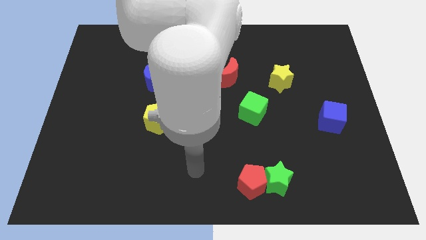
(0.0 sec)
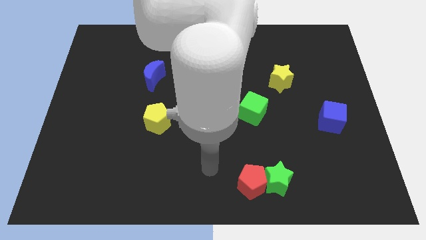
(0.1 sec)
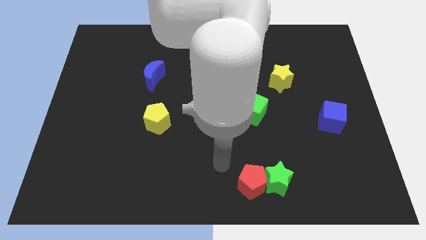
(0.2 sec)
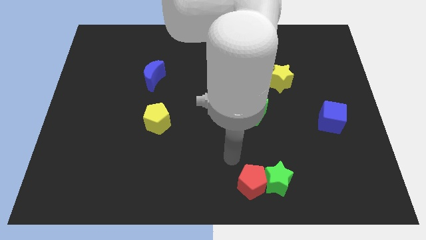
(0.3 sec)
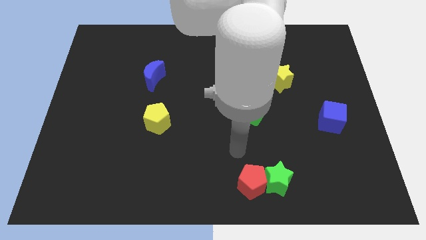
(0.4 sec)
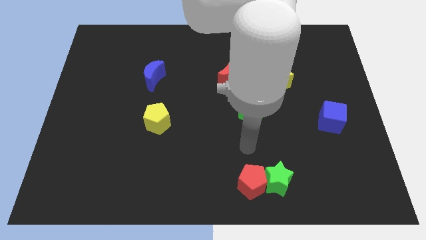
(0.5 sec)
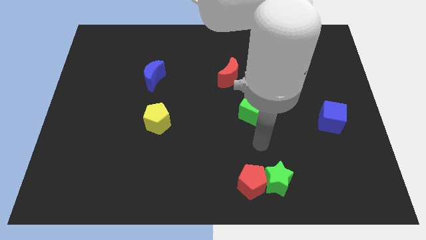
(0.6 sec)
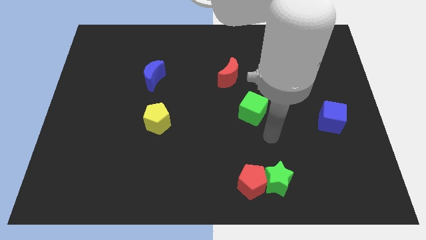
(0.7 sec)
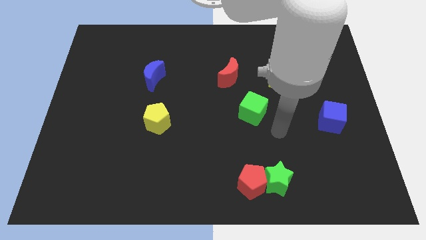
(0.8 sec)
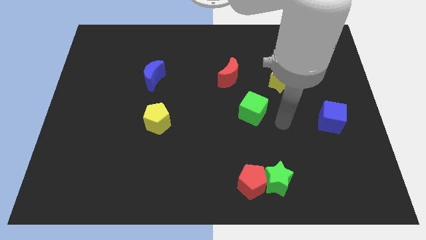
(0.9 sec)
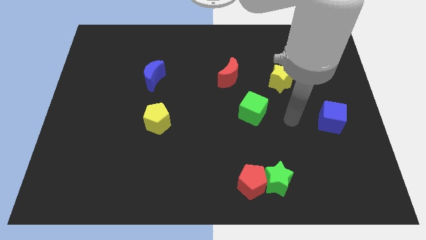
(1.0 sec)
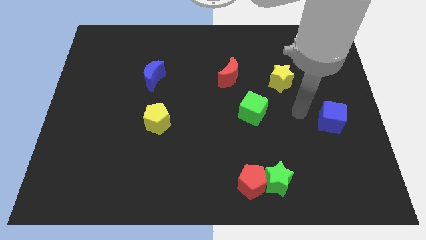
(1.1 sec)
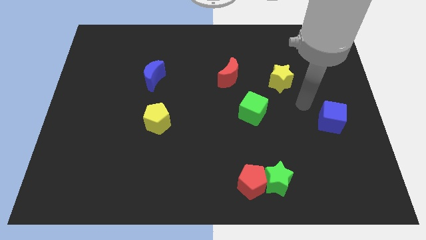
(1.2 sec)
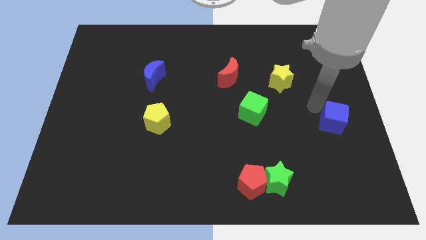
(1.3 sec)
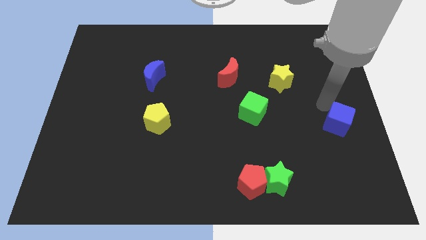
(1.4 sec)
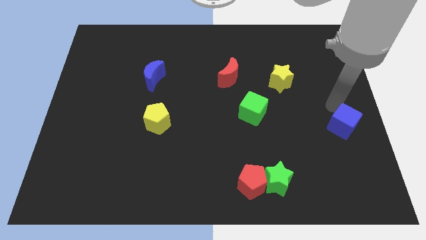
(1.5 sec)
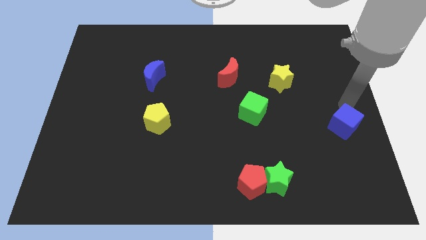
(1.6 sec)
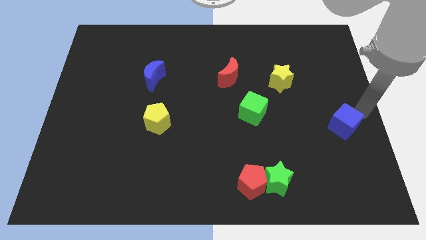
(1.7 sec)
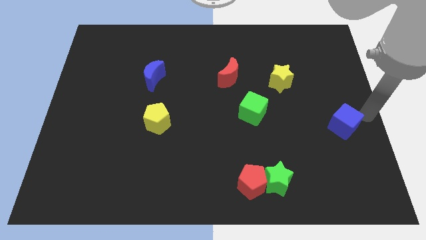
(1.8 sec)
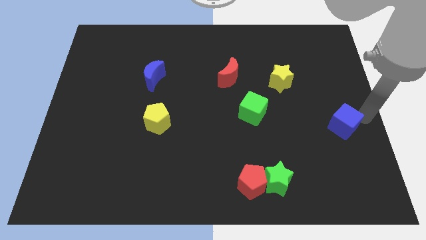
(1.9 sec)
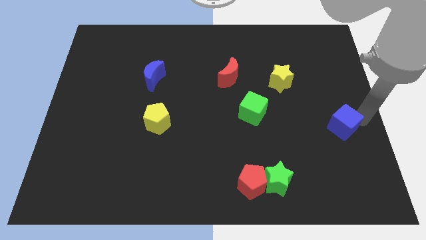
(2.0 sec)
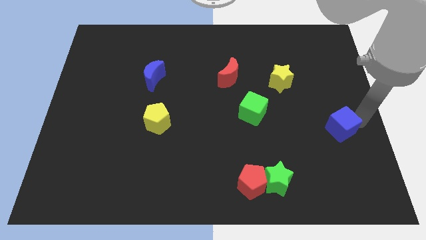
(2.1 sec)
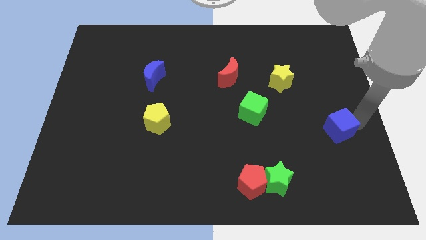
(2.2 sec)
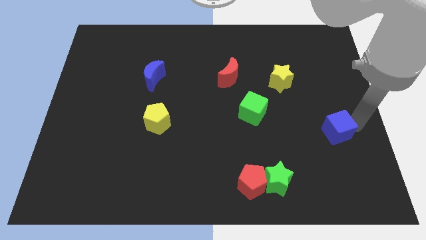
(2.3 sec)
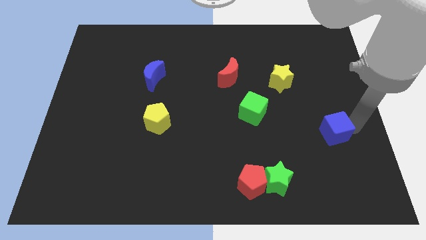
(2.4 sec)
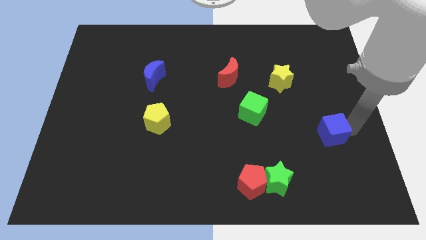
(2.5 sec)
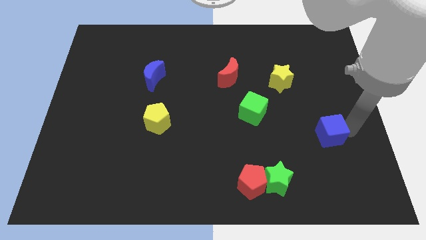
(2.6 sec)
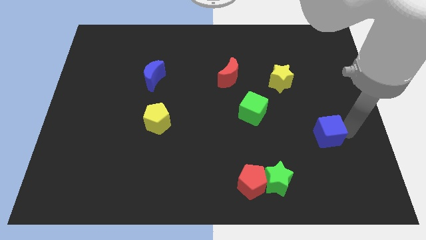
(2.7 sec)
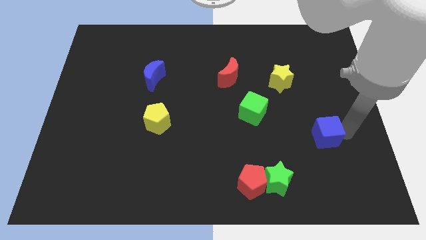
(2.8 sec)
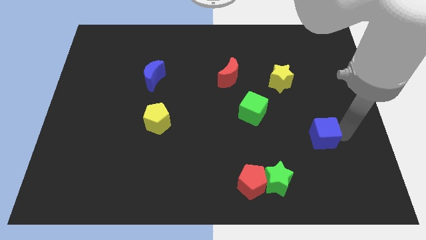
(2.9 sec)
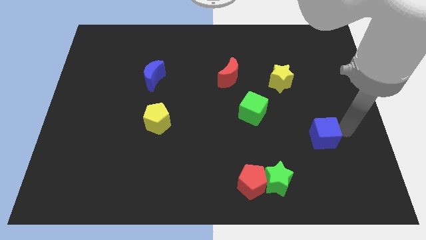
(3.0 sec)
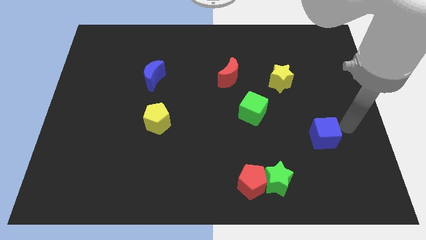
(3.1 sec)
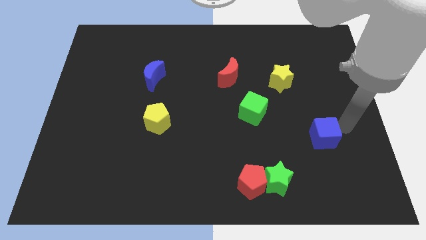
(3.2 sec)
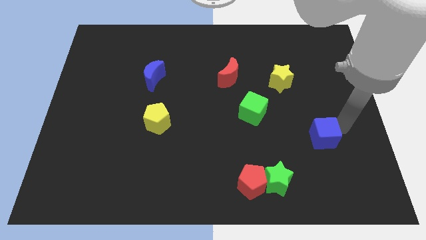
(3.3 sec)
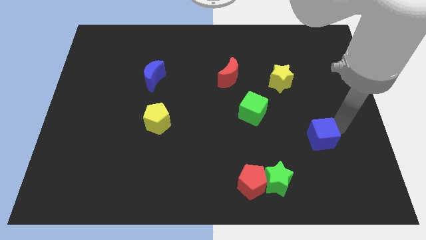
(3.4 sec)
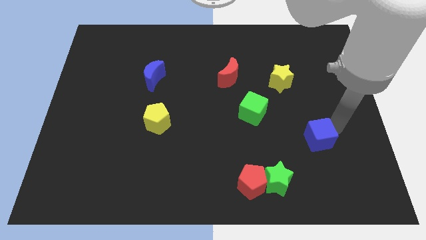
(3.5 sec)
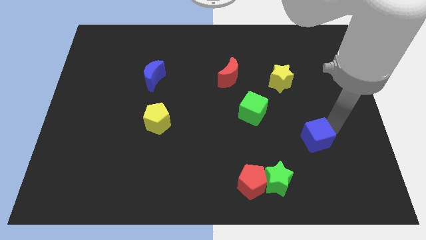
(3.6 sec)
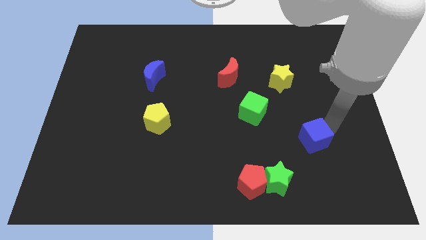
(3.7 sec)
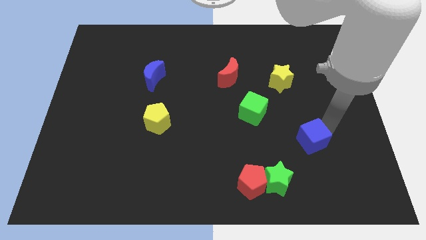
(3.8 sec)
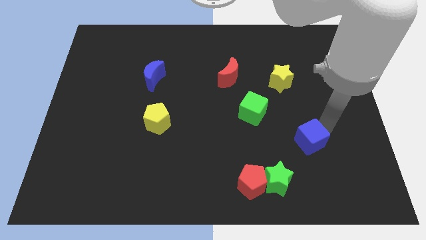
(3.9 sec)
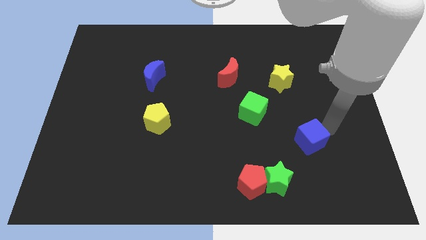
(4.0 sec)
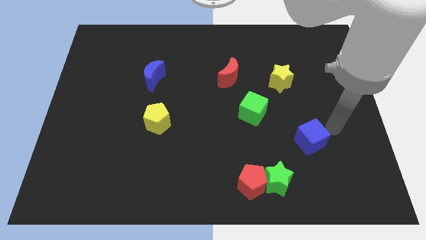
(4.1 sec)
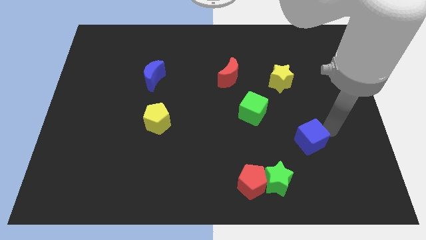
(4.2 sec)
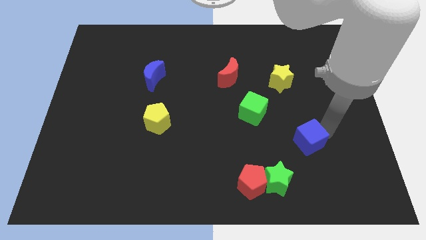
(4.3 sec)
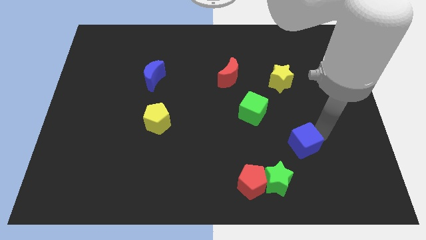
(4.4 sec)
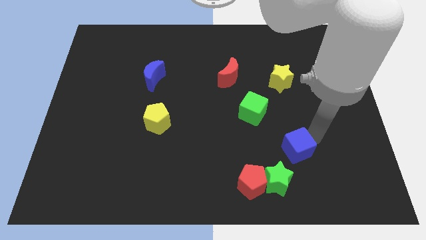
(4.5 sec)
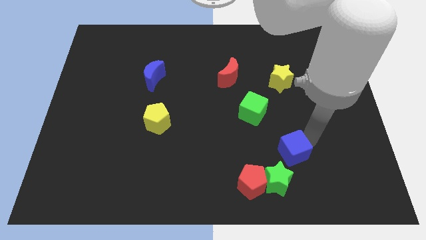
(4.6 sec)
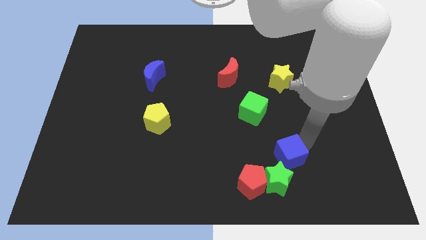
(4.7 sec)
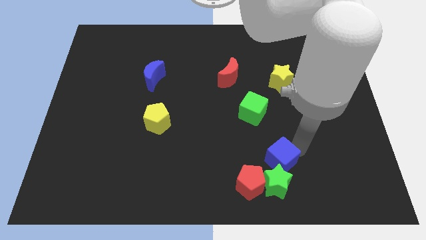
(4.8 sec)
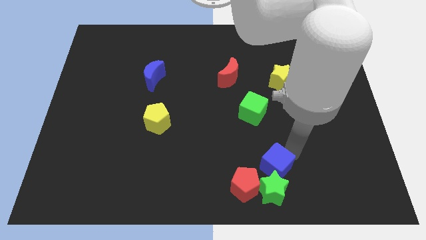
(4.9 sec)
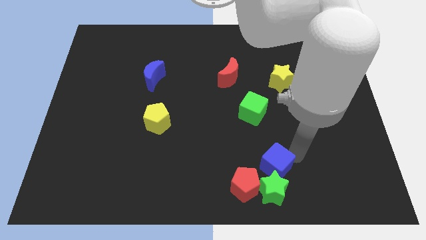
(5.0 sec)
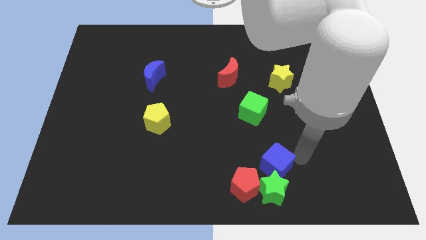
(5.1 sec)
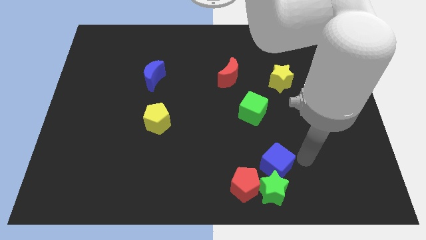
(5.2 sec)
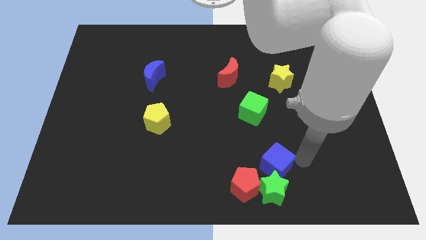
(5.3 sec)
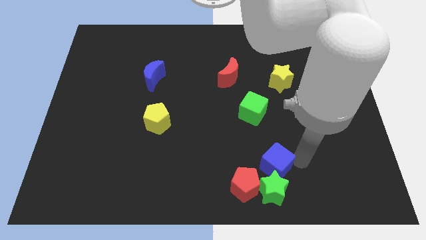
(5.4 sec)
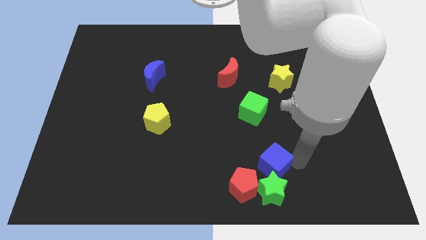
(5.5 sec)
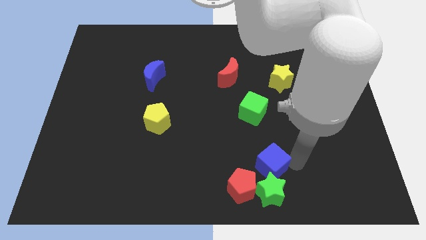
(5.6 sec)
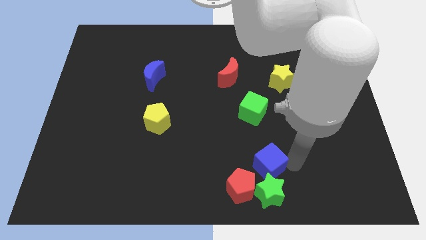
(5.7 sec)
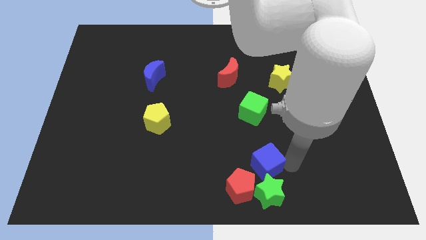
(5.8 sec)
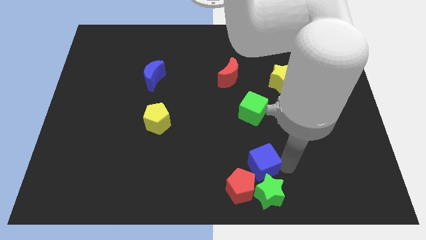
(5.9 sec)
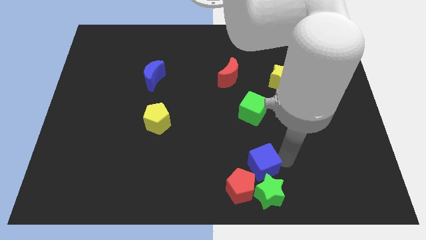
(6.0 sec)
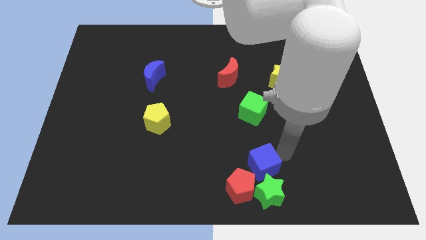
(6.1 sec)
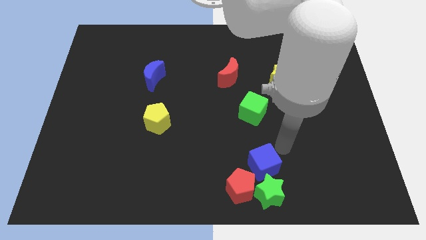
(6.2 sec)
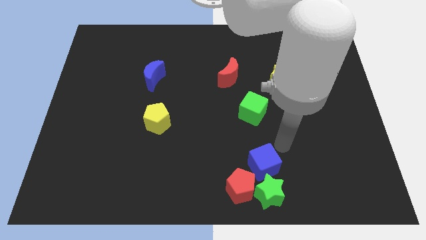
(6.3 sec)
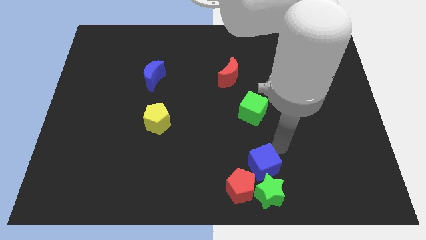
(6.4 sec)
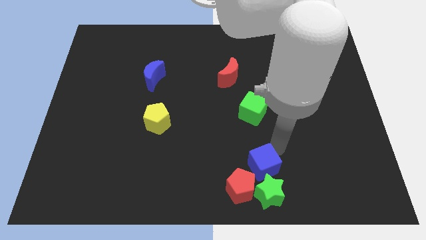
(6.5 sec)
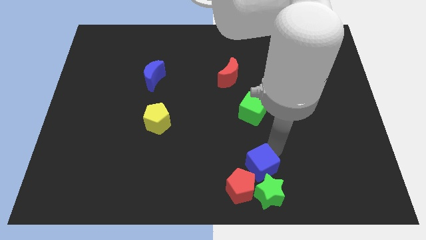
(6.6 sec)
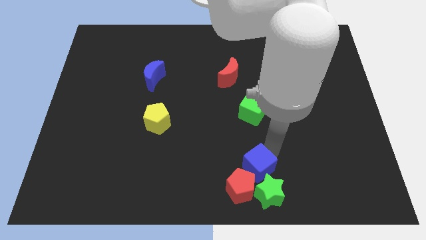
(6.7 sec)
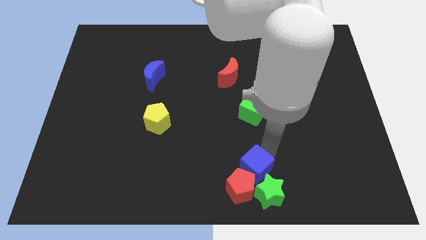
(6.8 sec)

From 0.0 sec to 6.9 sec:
slide the blue cube close to the red pentagon

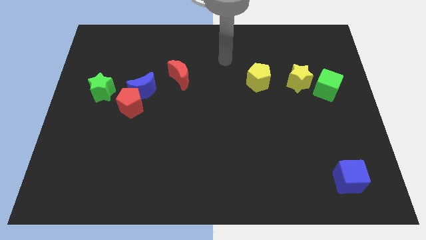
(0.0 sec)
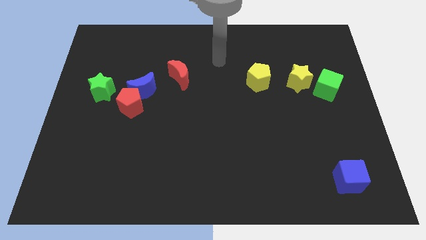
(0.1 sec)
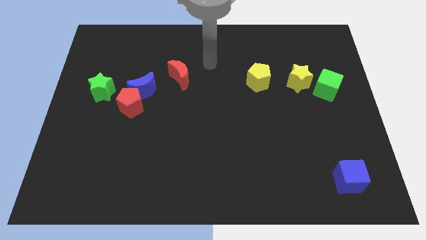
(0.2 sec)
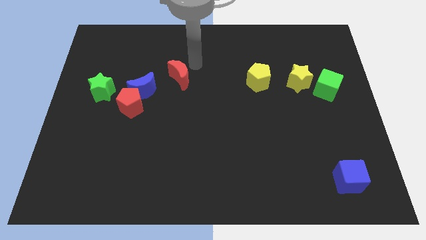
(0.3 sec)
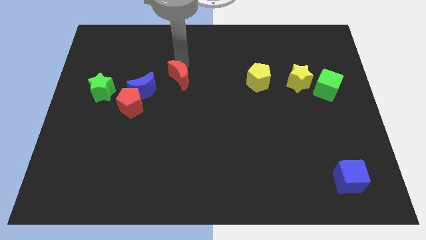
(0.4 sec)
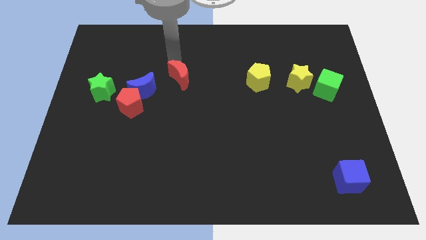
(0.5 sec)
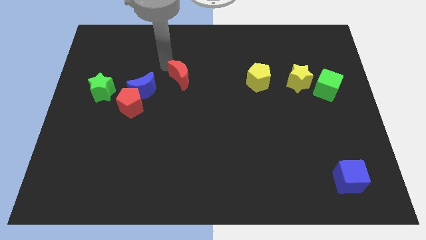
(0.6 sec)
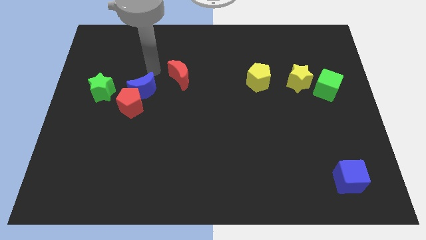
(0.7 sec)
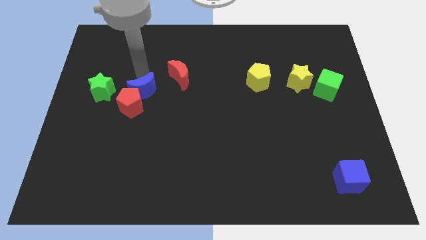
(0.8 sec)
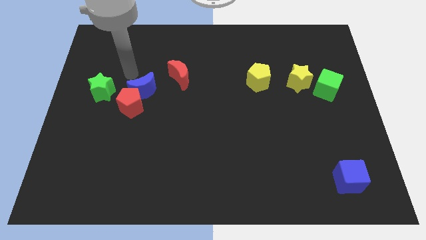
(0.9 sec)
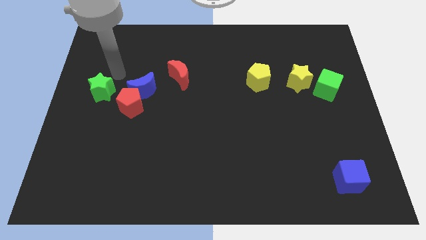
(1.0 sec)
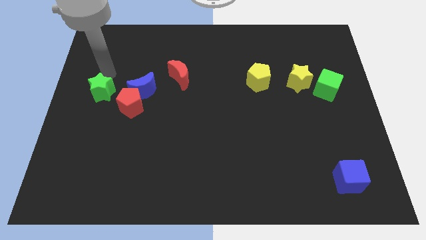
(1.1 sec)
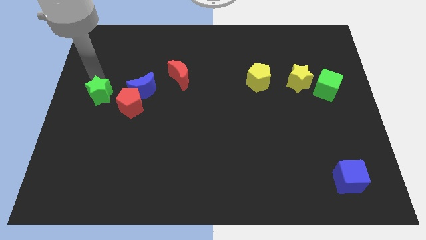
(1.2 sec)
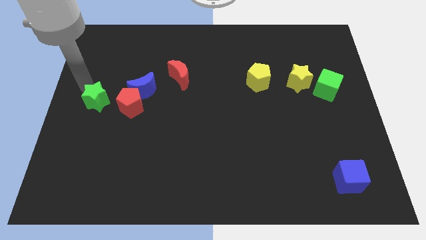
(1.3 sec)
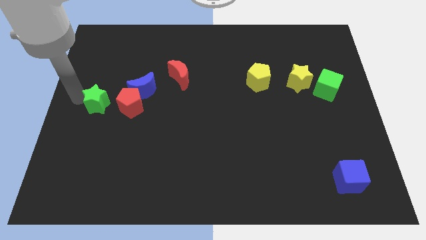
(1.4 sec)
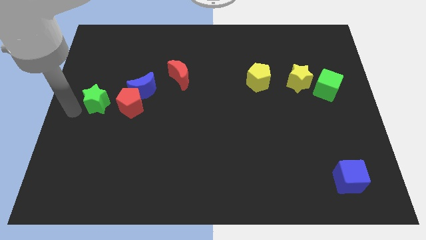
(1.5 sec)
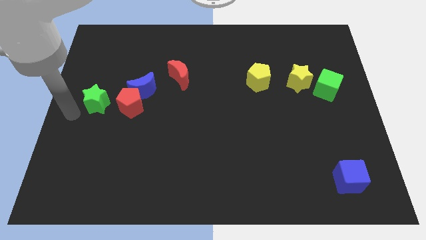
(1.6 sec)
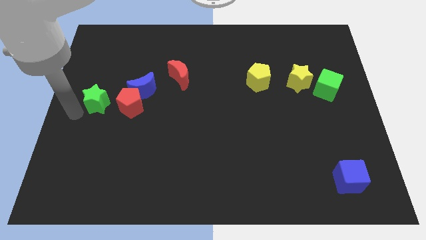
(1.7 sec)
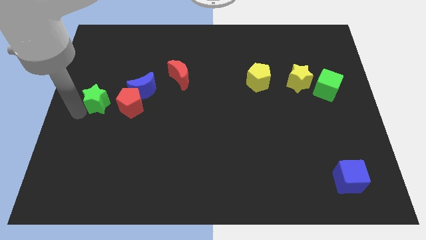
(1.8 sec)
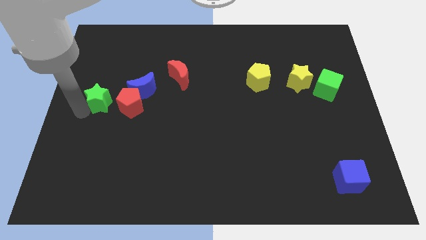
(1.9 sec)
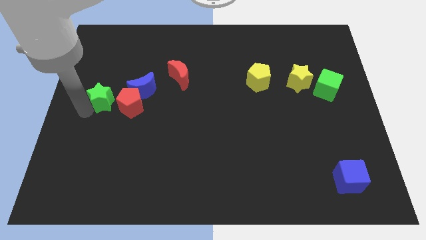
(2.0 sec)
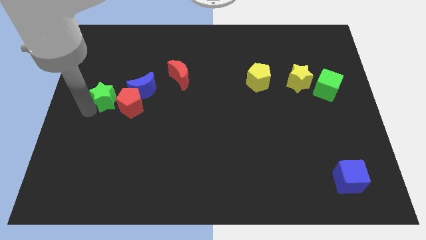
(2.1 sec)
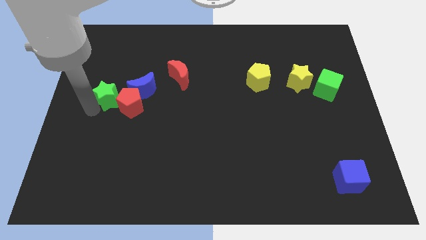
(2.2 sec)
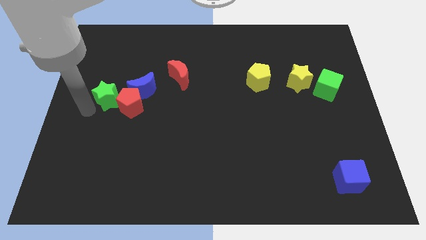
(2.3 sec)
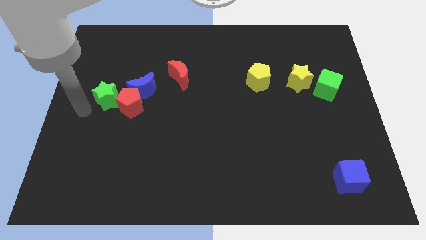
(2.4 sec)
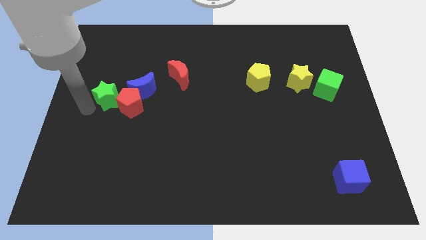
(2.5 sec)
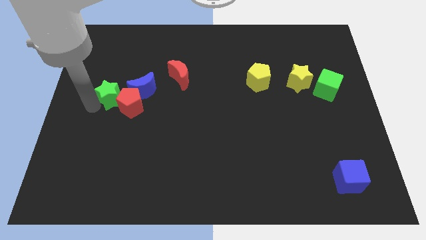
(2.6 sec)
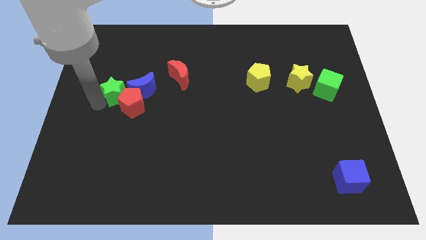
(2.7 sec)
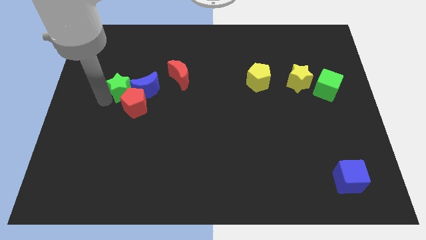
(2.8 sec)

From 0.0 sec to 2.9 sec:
push the green star towards the blue moon
